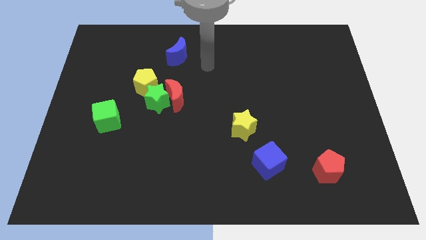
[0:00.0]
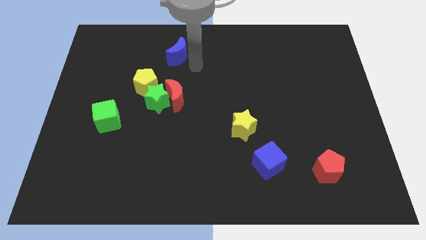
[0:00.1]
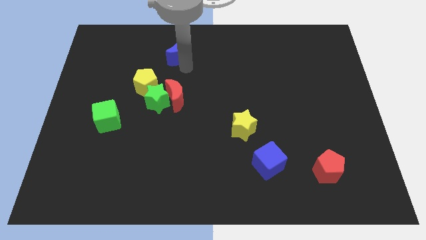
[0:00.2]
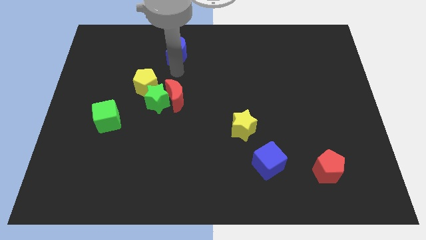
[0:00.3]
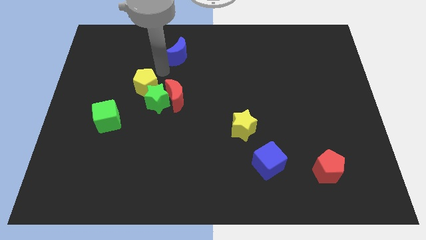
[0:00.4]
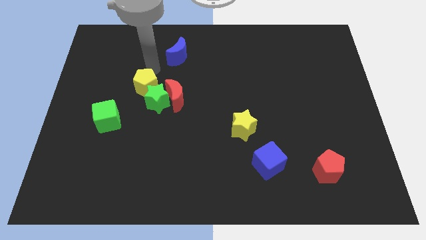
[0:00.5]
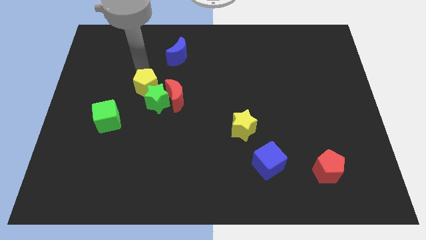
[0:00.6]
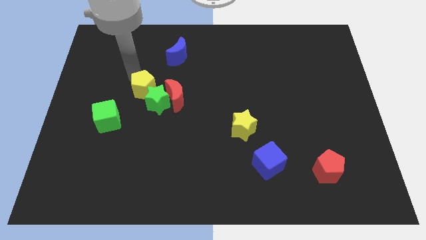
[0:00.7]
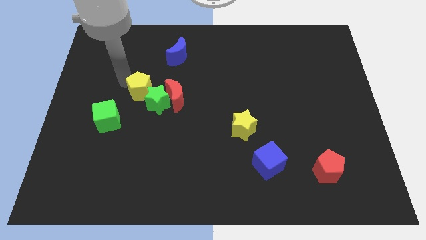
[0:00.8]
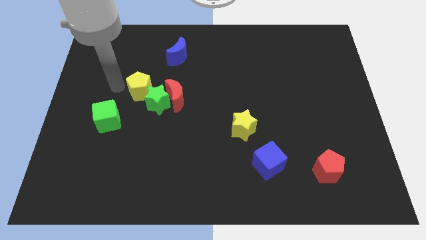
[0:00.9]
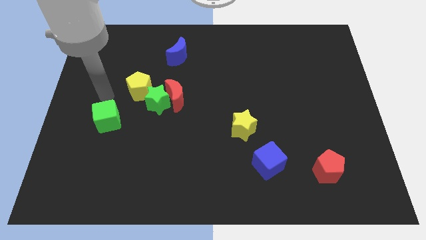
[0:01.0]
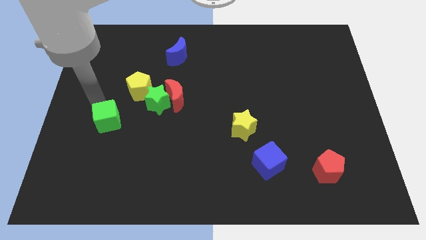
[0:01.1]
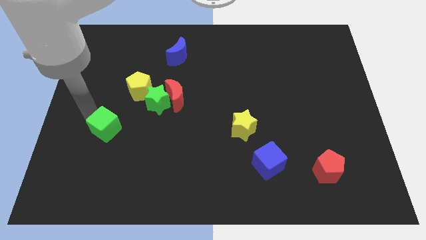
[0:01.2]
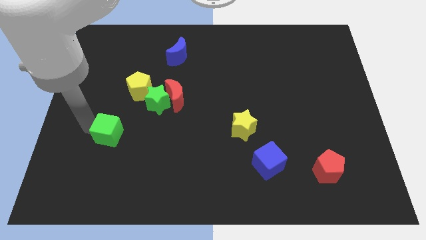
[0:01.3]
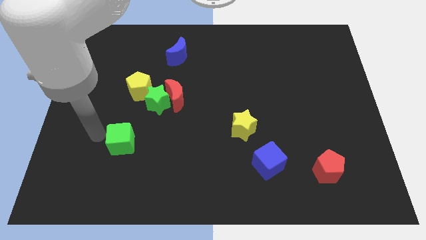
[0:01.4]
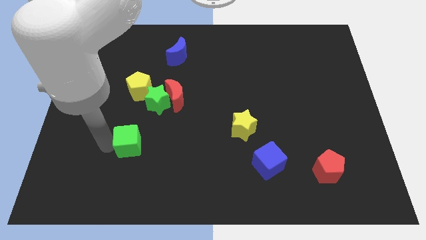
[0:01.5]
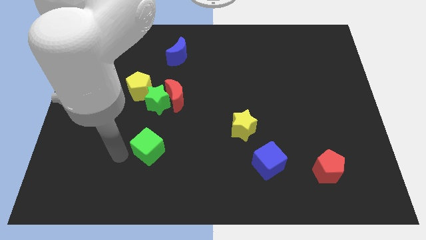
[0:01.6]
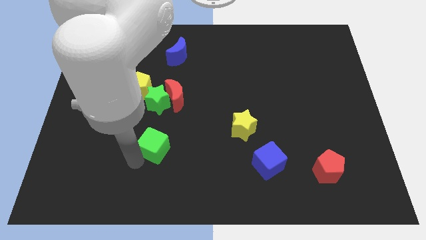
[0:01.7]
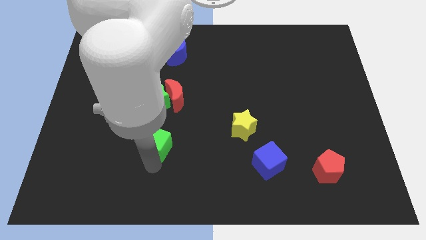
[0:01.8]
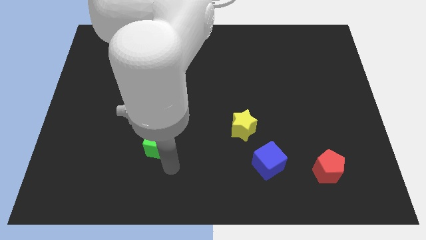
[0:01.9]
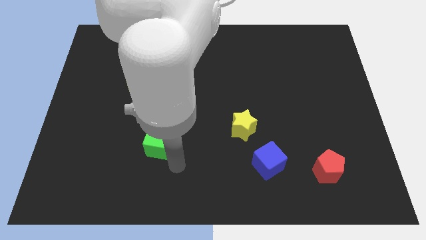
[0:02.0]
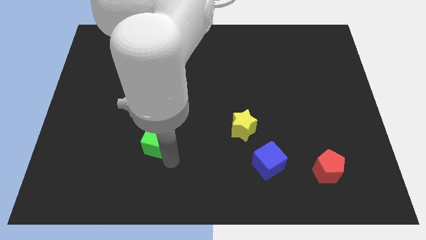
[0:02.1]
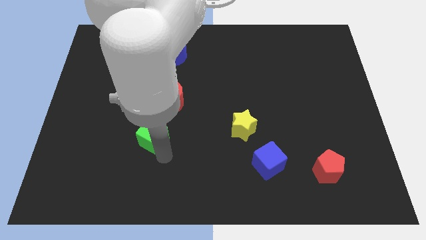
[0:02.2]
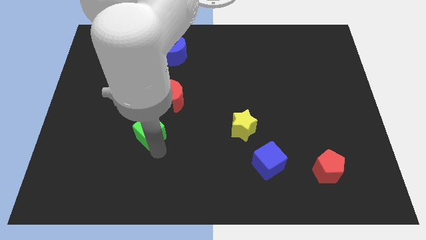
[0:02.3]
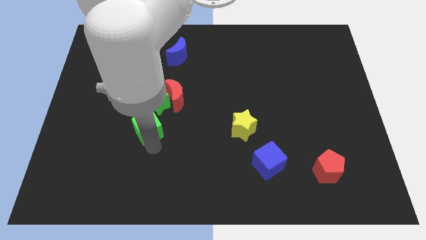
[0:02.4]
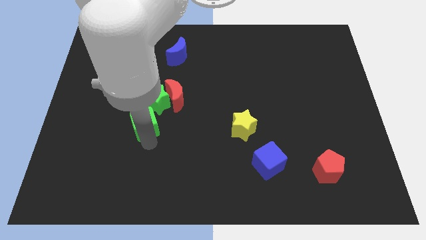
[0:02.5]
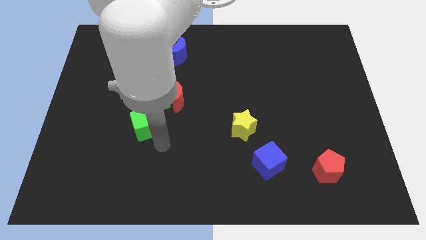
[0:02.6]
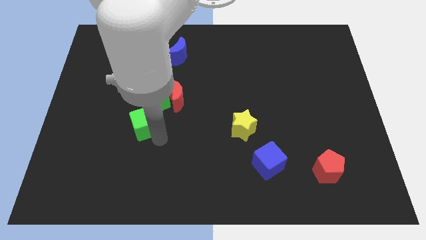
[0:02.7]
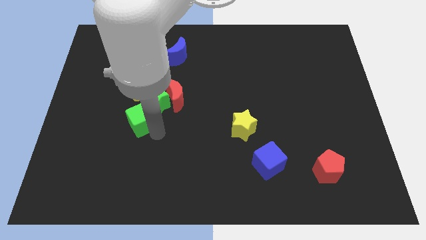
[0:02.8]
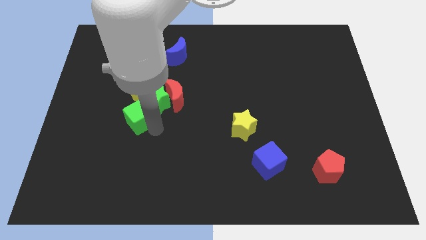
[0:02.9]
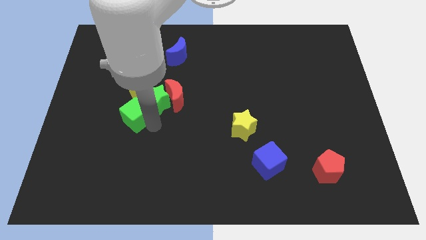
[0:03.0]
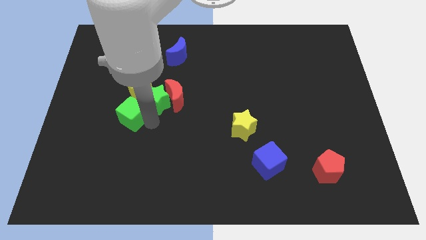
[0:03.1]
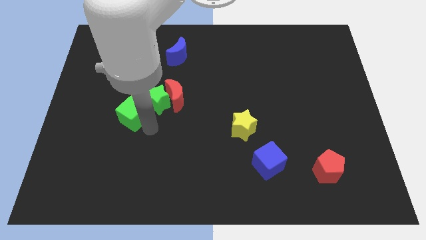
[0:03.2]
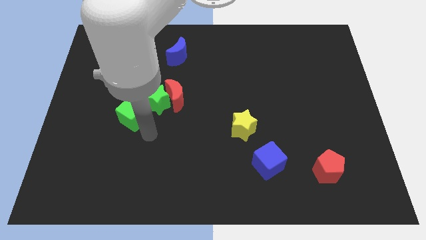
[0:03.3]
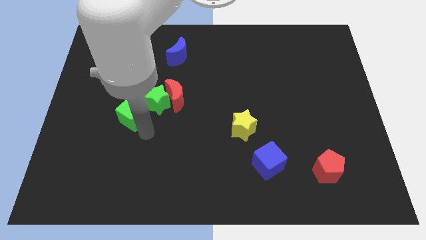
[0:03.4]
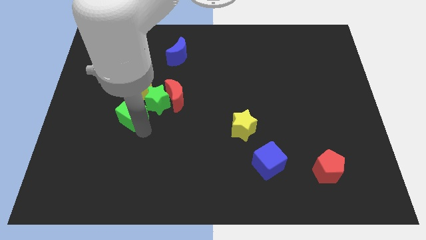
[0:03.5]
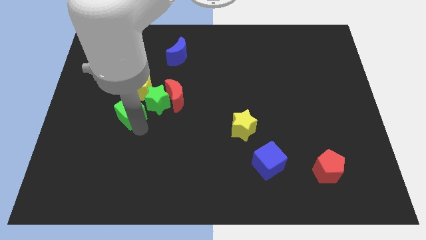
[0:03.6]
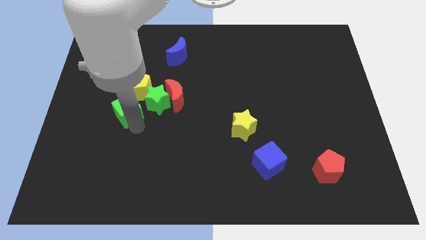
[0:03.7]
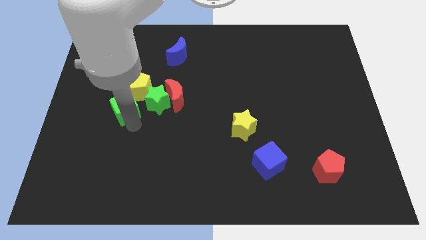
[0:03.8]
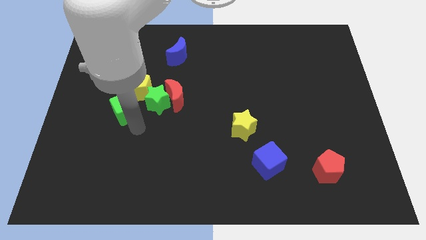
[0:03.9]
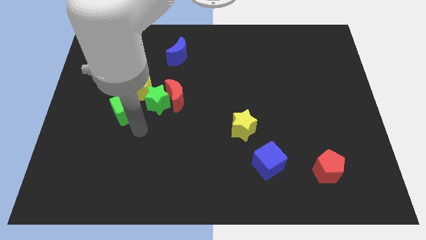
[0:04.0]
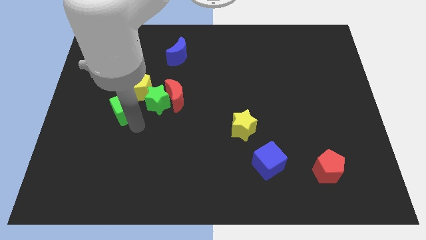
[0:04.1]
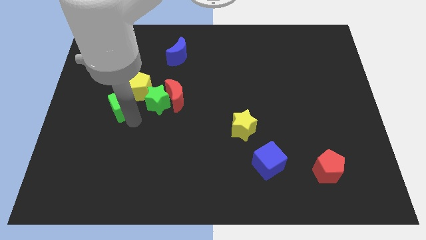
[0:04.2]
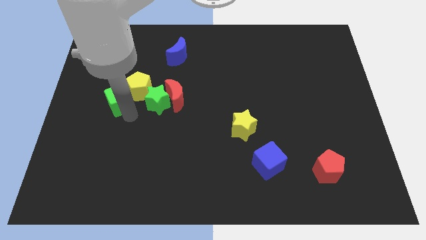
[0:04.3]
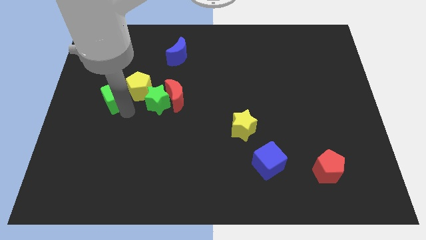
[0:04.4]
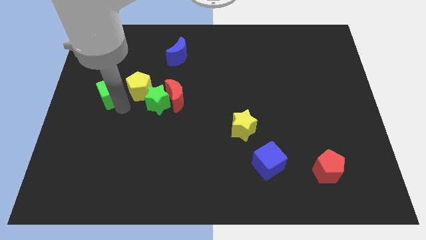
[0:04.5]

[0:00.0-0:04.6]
slightly push the green cube upwards

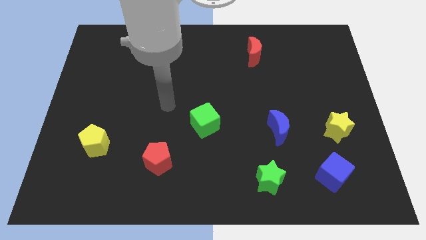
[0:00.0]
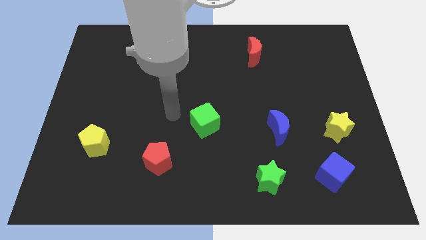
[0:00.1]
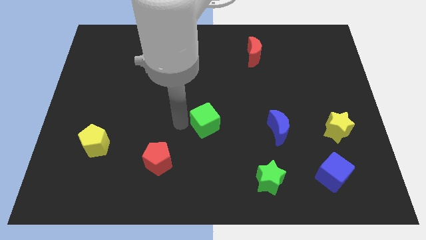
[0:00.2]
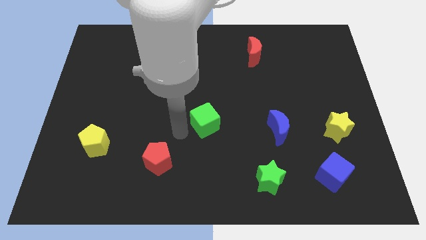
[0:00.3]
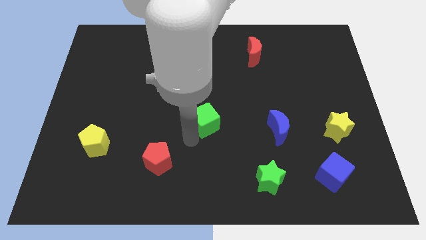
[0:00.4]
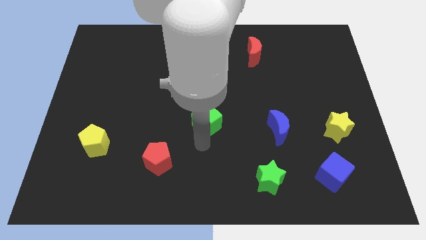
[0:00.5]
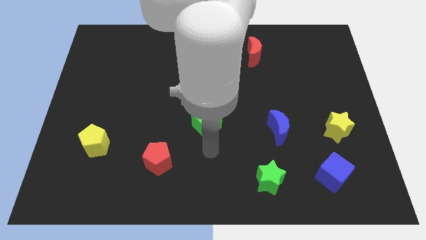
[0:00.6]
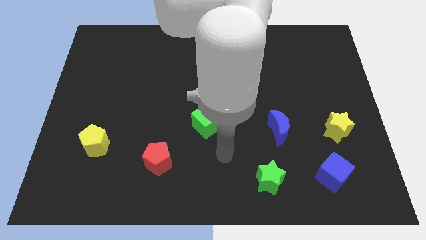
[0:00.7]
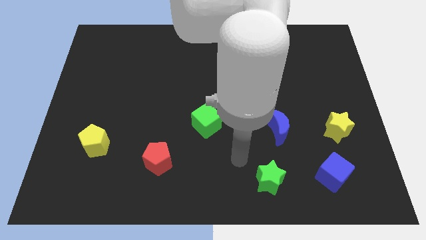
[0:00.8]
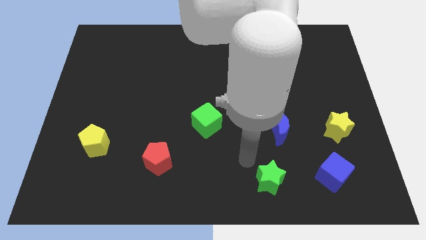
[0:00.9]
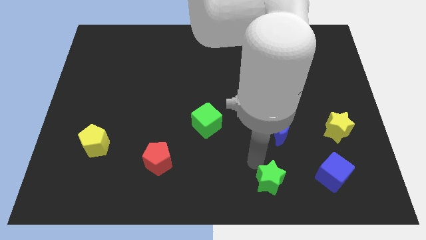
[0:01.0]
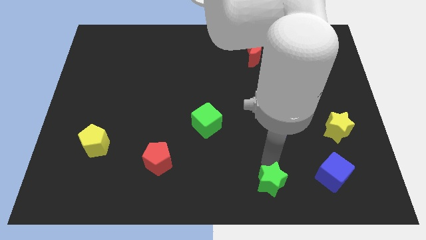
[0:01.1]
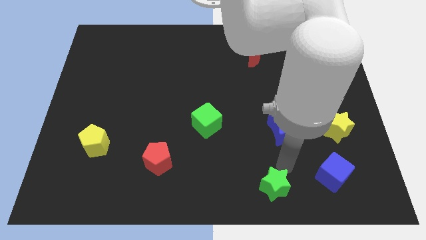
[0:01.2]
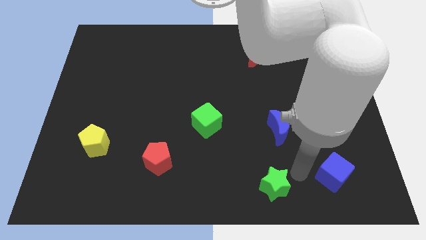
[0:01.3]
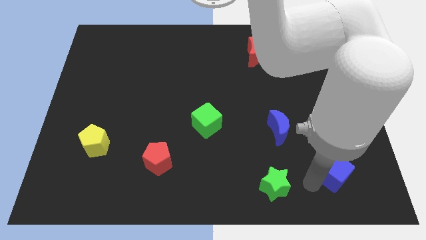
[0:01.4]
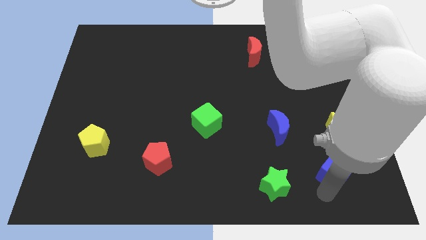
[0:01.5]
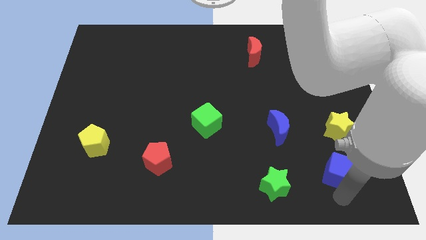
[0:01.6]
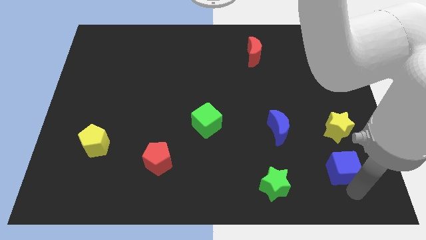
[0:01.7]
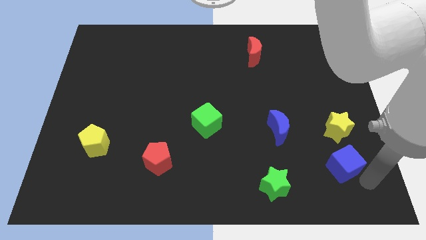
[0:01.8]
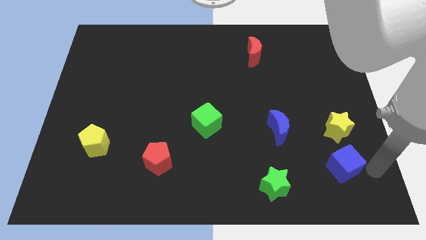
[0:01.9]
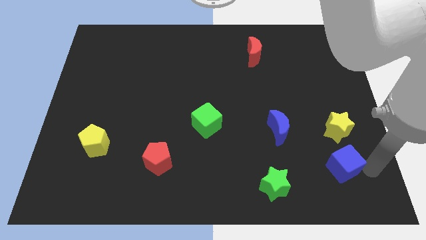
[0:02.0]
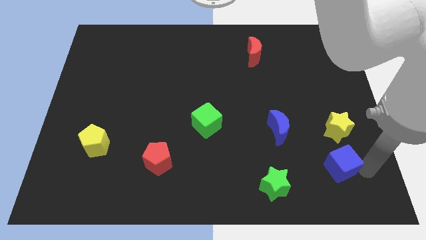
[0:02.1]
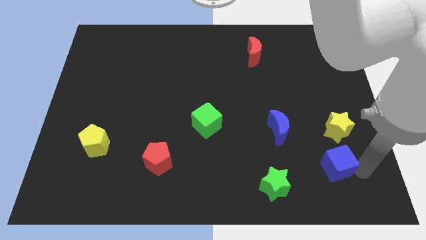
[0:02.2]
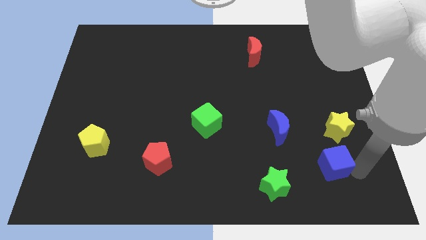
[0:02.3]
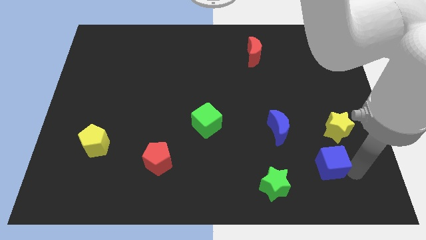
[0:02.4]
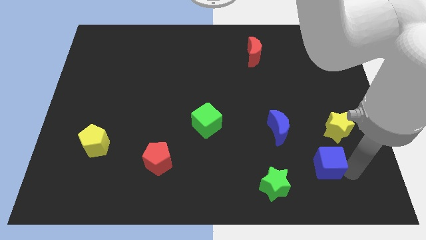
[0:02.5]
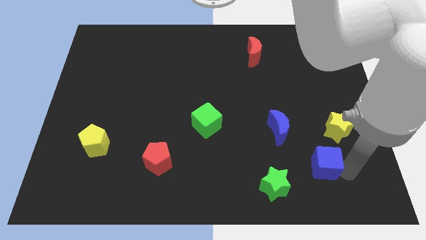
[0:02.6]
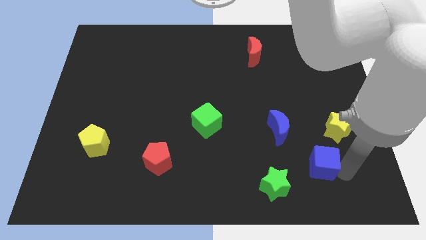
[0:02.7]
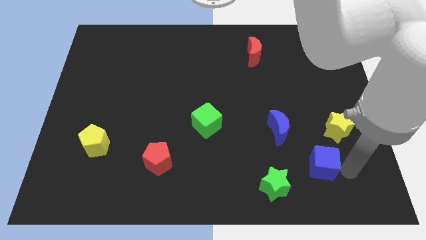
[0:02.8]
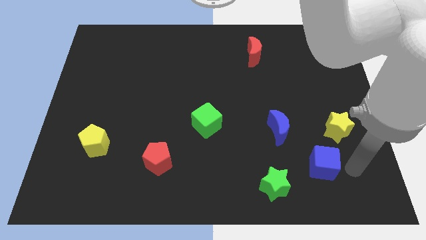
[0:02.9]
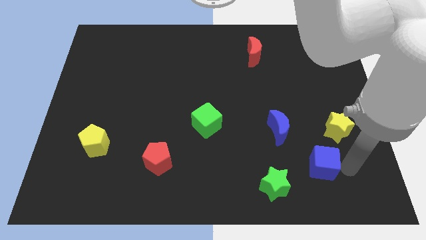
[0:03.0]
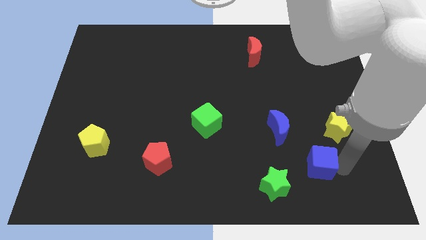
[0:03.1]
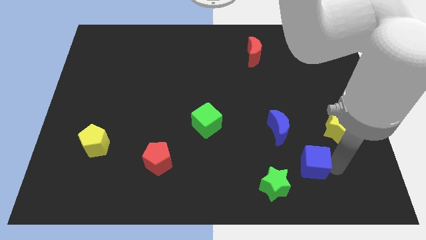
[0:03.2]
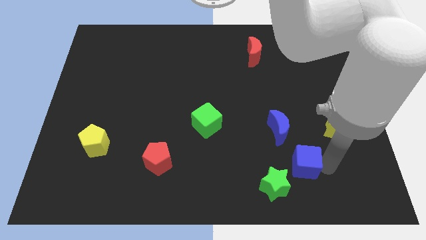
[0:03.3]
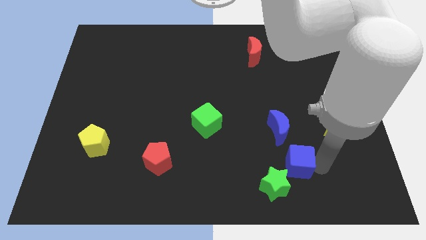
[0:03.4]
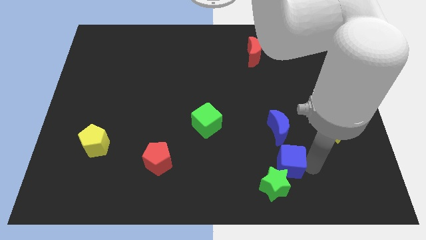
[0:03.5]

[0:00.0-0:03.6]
move the blue cube to the left somewhat

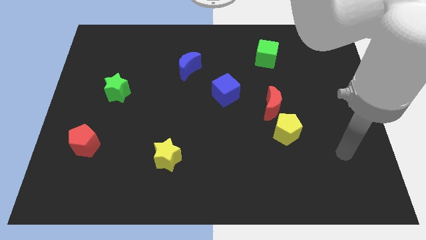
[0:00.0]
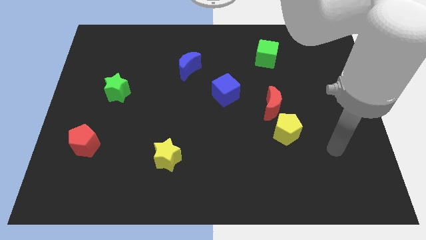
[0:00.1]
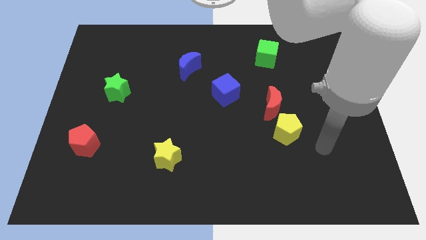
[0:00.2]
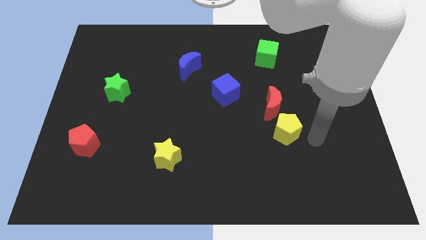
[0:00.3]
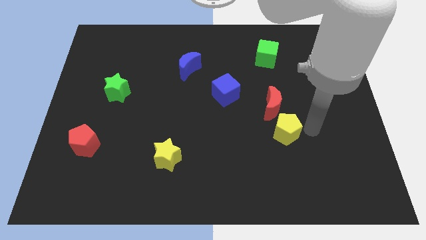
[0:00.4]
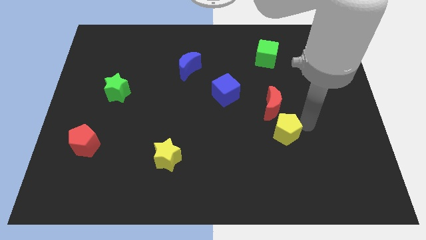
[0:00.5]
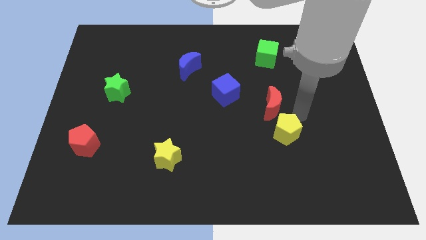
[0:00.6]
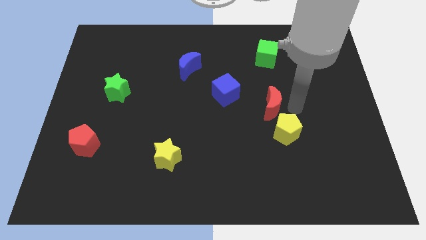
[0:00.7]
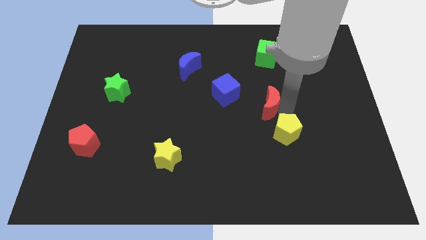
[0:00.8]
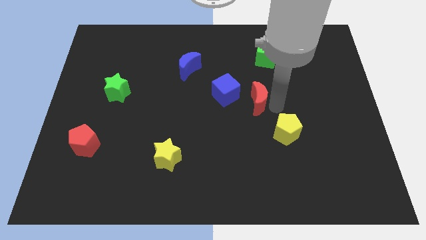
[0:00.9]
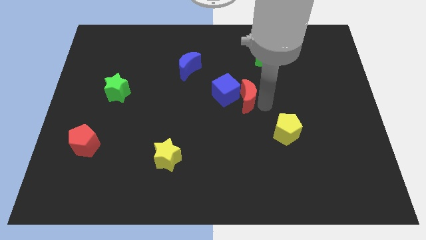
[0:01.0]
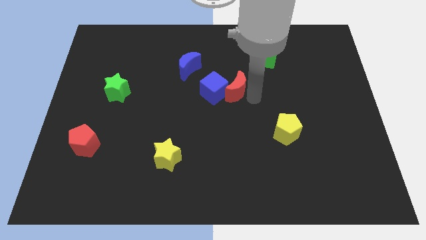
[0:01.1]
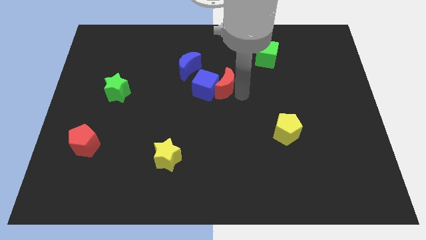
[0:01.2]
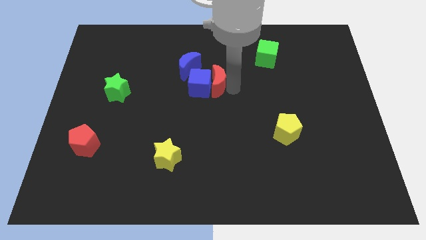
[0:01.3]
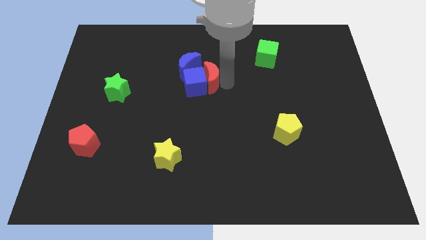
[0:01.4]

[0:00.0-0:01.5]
push the blue cube somewhat left
